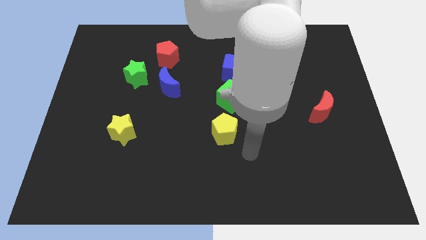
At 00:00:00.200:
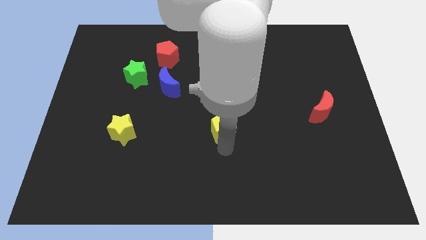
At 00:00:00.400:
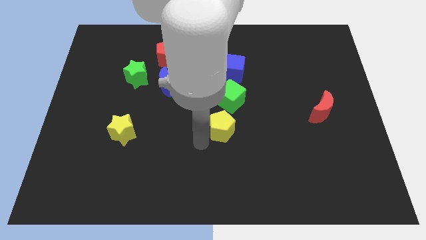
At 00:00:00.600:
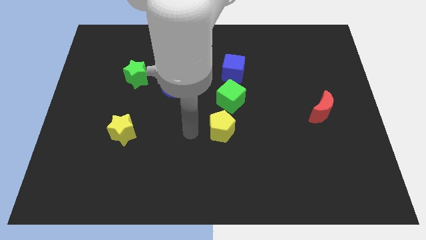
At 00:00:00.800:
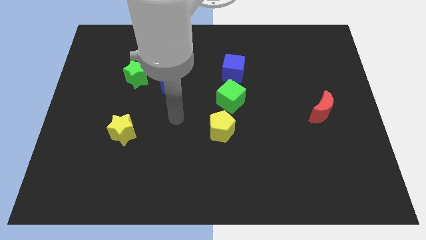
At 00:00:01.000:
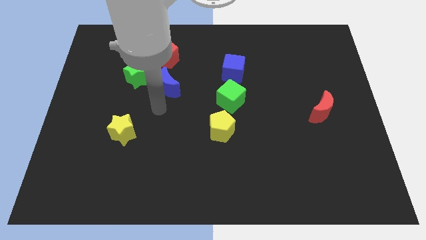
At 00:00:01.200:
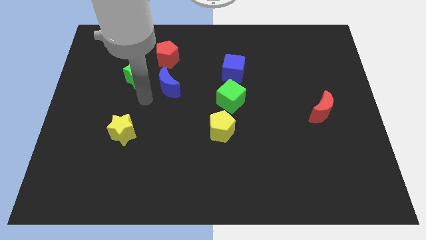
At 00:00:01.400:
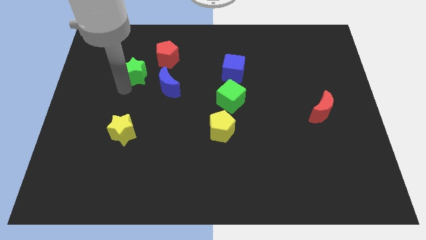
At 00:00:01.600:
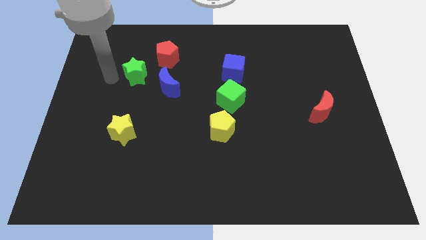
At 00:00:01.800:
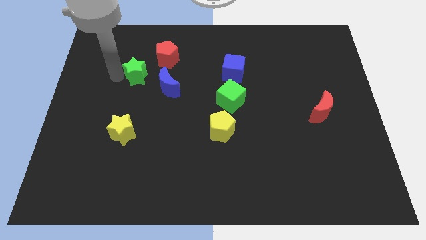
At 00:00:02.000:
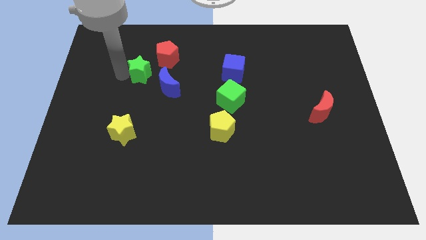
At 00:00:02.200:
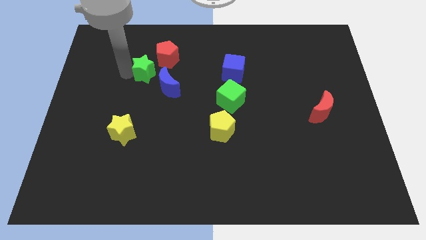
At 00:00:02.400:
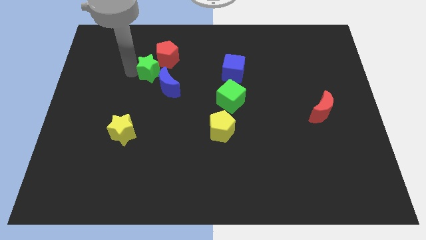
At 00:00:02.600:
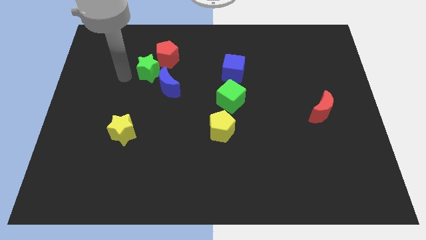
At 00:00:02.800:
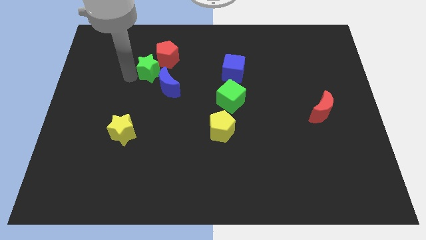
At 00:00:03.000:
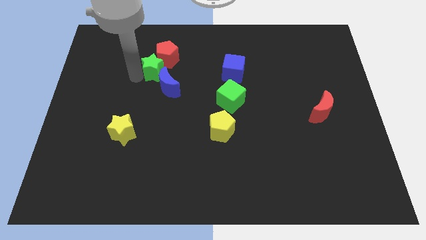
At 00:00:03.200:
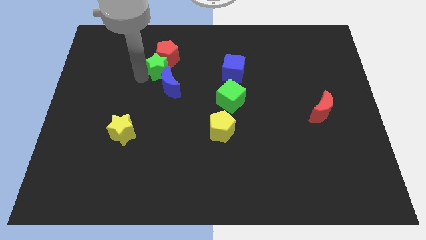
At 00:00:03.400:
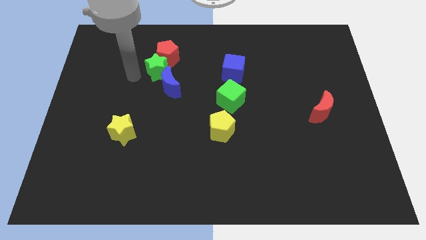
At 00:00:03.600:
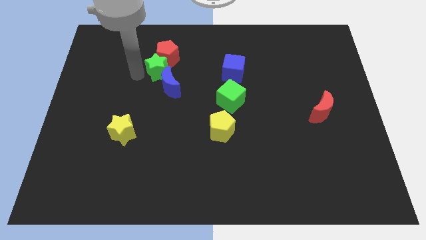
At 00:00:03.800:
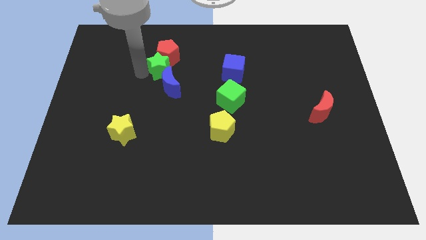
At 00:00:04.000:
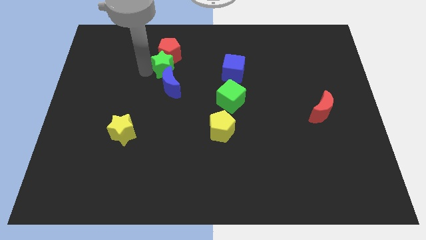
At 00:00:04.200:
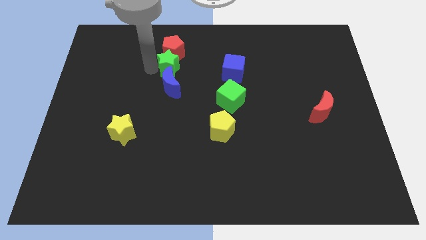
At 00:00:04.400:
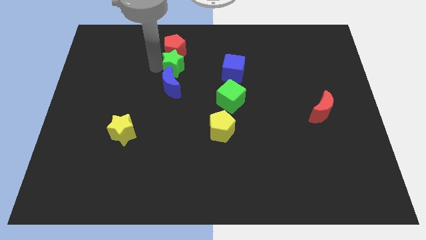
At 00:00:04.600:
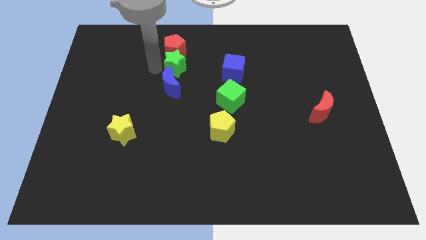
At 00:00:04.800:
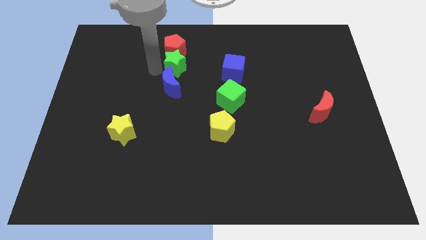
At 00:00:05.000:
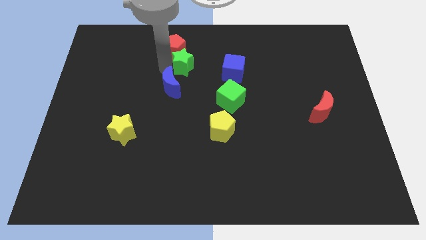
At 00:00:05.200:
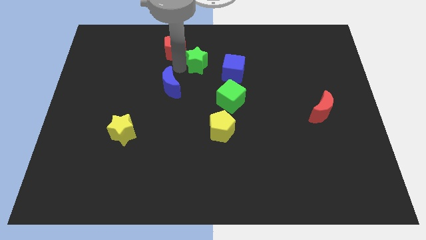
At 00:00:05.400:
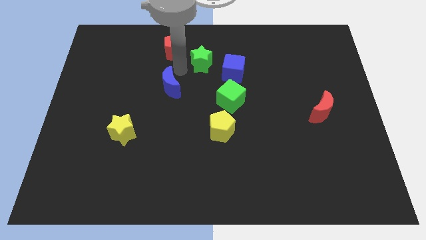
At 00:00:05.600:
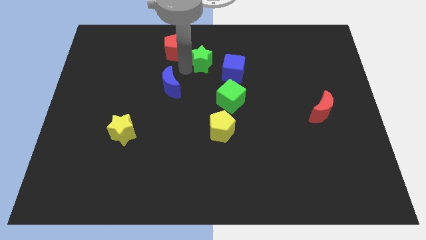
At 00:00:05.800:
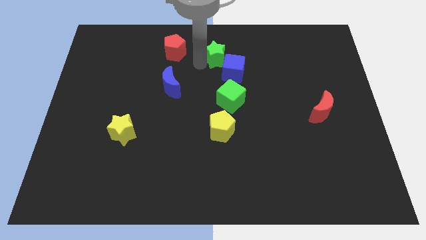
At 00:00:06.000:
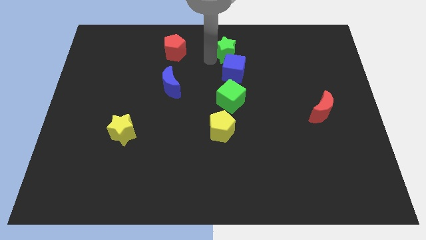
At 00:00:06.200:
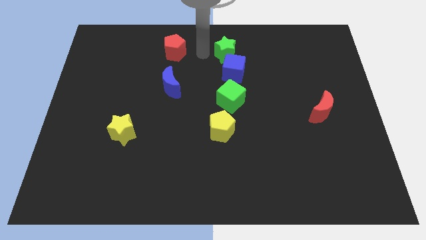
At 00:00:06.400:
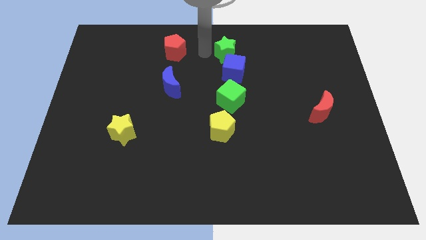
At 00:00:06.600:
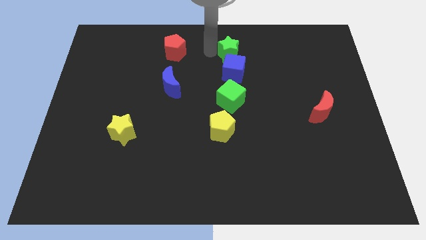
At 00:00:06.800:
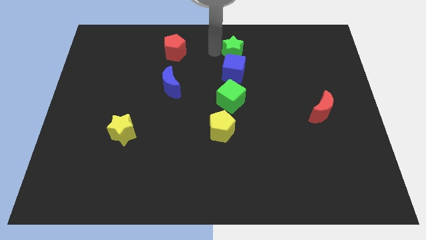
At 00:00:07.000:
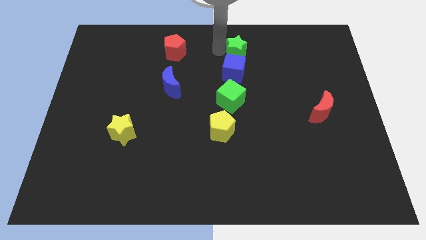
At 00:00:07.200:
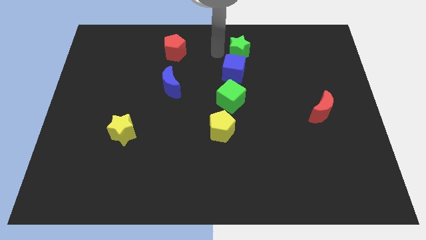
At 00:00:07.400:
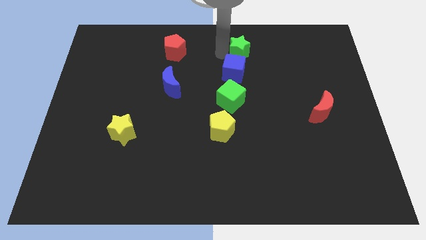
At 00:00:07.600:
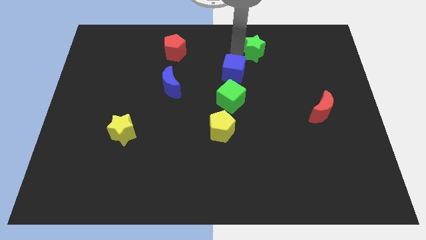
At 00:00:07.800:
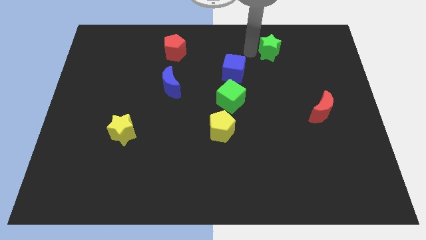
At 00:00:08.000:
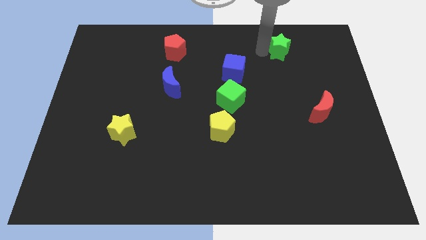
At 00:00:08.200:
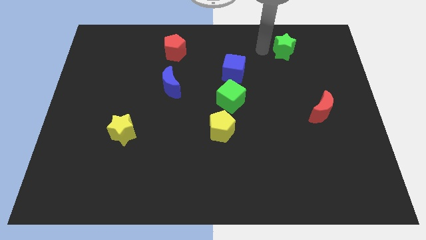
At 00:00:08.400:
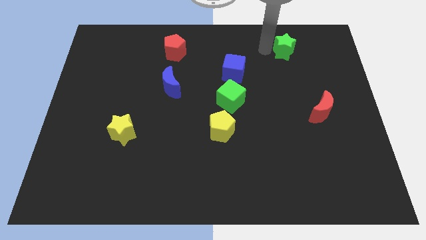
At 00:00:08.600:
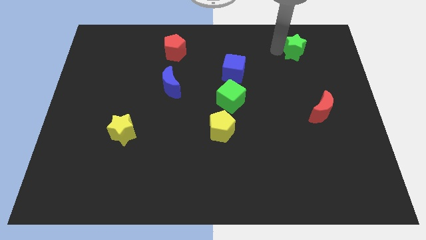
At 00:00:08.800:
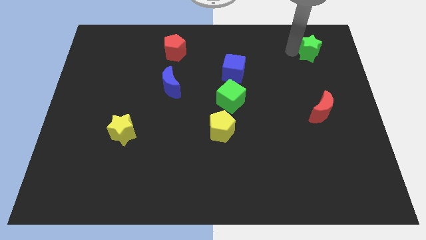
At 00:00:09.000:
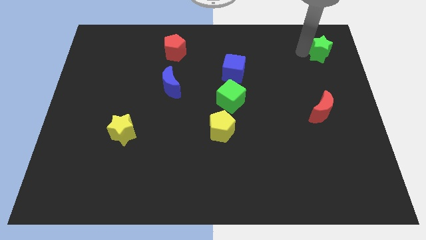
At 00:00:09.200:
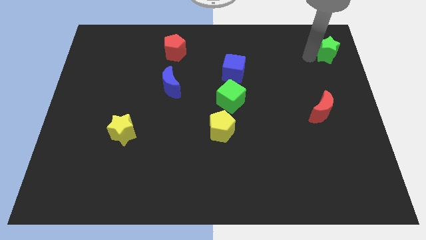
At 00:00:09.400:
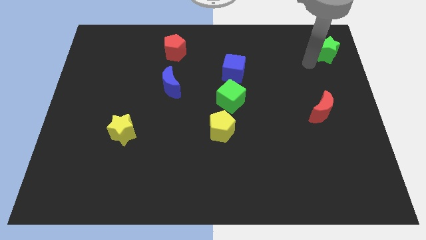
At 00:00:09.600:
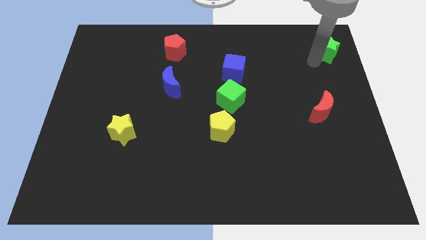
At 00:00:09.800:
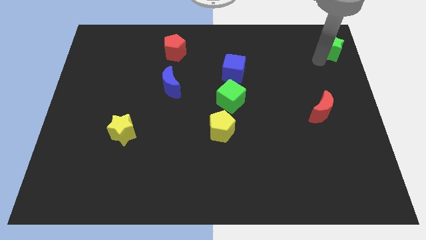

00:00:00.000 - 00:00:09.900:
put the green star to the upper right corner

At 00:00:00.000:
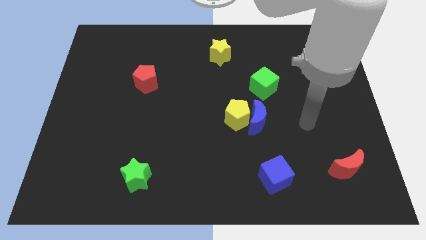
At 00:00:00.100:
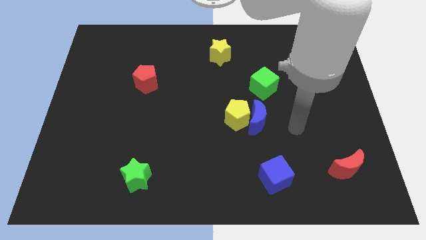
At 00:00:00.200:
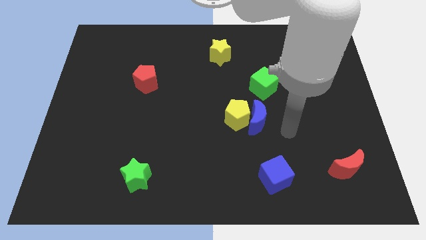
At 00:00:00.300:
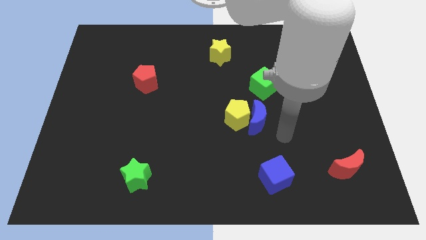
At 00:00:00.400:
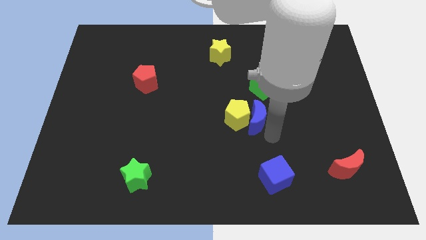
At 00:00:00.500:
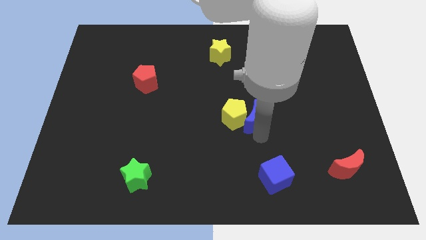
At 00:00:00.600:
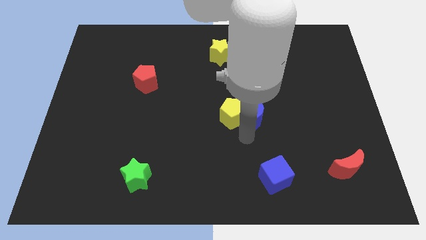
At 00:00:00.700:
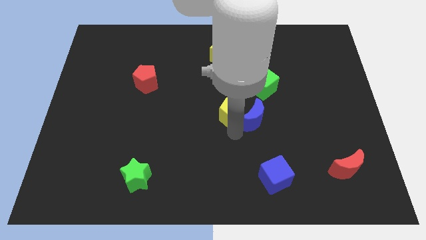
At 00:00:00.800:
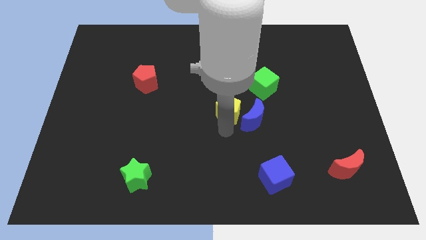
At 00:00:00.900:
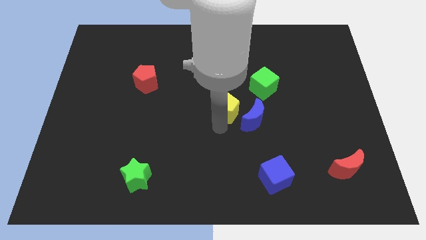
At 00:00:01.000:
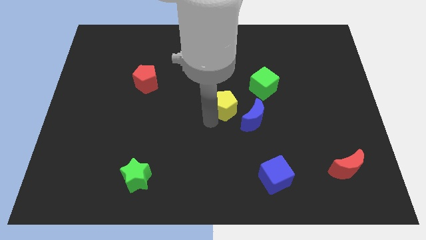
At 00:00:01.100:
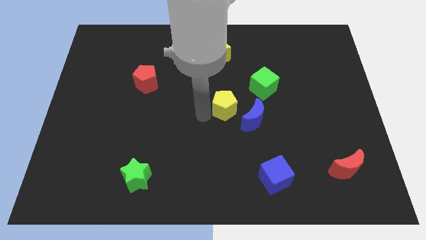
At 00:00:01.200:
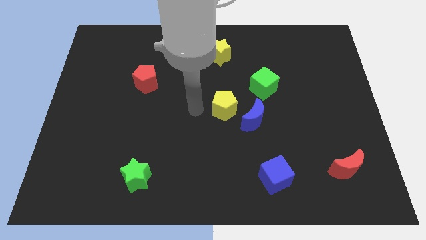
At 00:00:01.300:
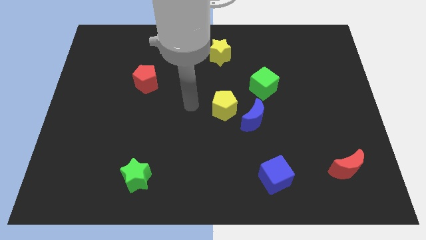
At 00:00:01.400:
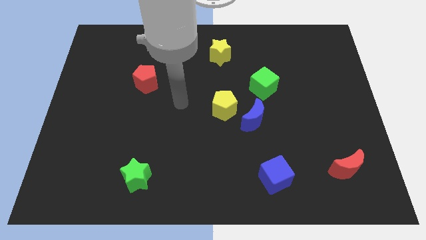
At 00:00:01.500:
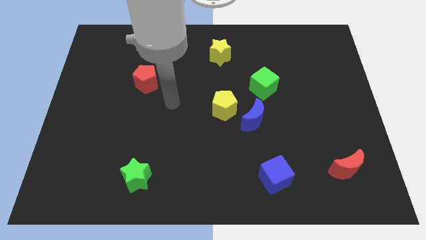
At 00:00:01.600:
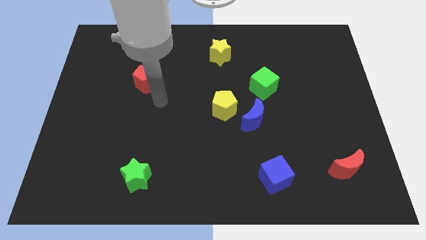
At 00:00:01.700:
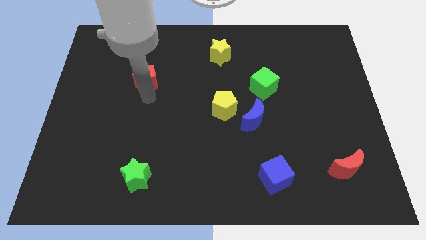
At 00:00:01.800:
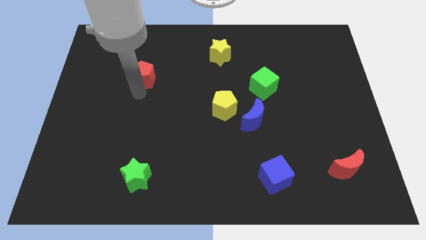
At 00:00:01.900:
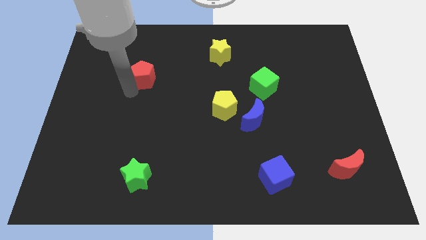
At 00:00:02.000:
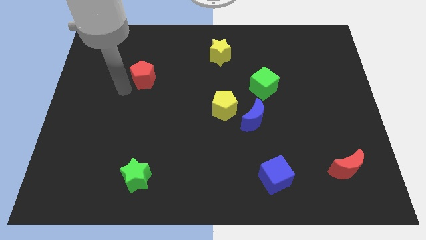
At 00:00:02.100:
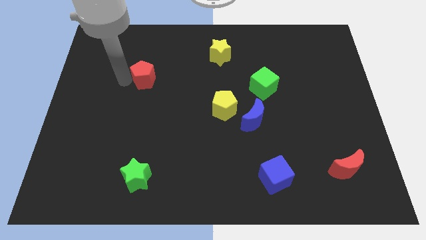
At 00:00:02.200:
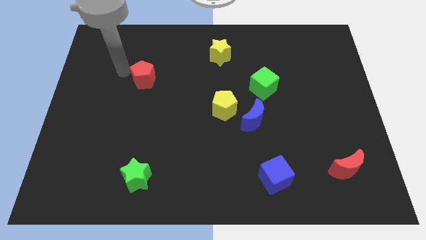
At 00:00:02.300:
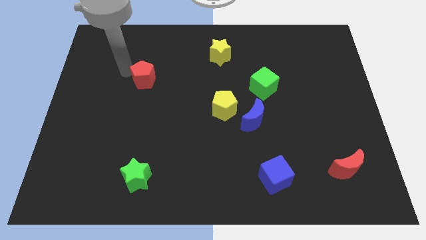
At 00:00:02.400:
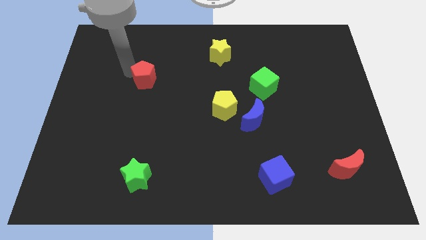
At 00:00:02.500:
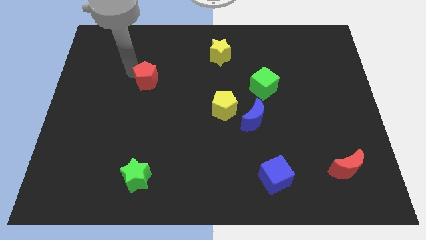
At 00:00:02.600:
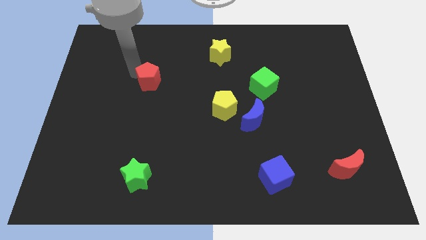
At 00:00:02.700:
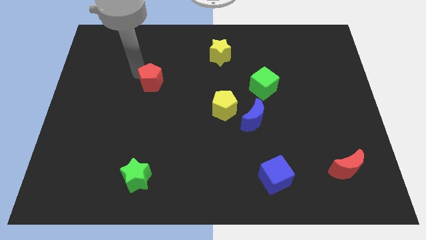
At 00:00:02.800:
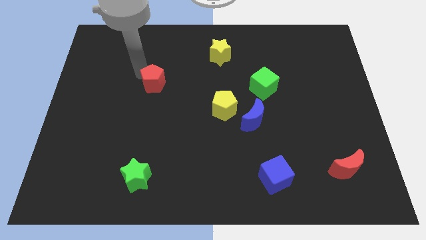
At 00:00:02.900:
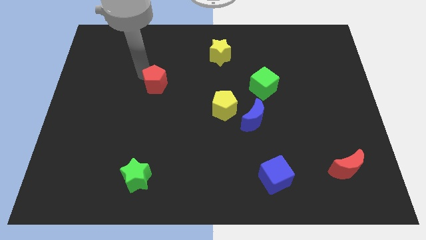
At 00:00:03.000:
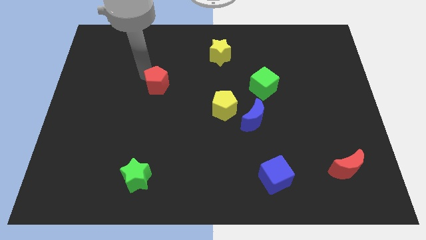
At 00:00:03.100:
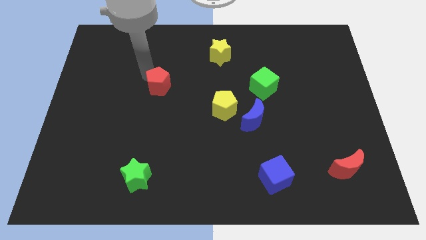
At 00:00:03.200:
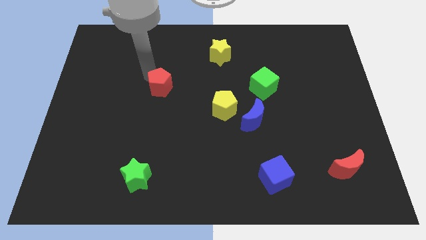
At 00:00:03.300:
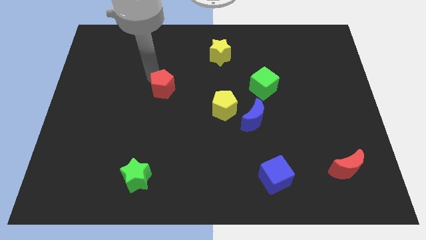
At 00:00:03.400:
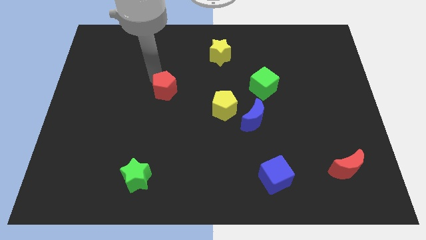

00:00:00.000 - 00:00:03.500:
move the red pentagon to the center of the board
